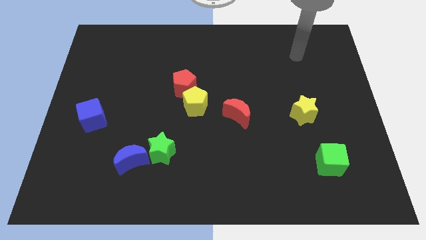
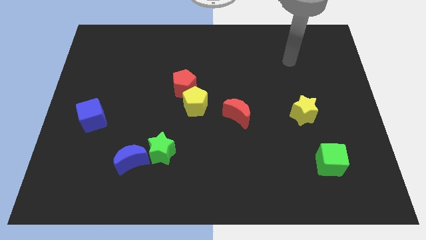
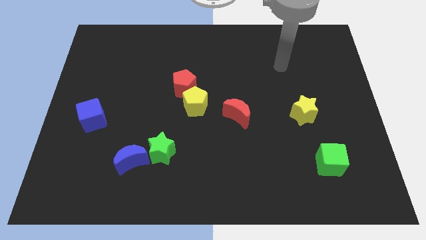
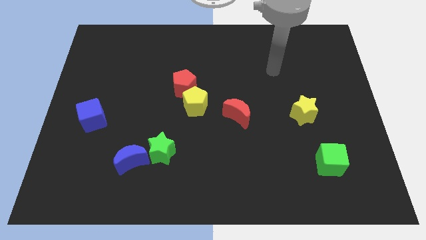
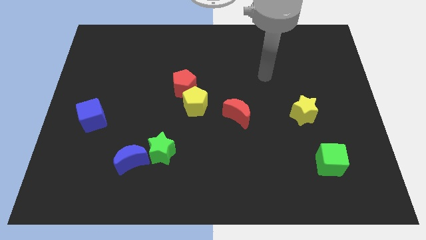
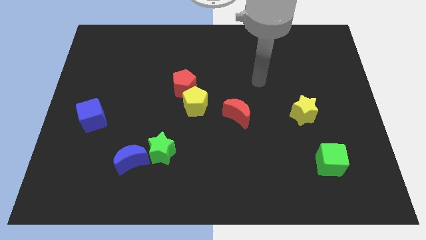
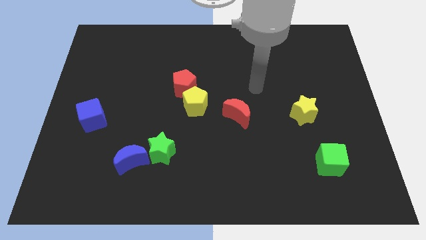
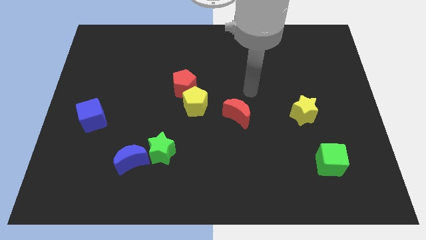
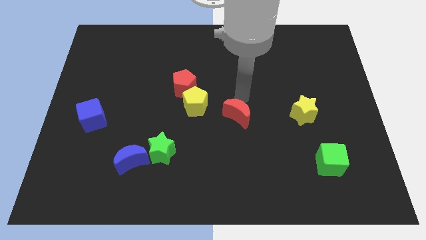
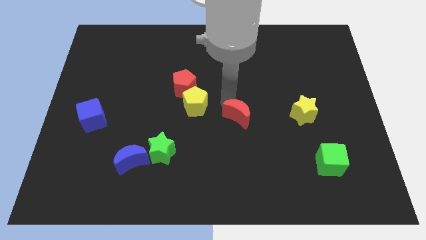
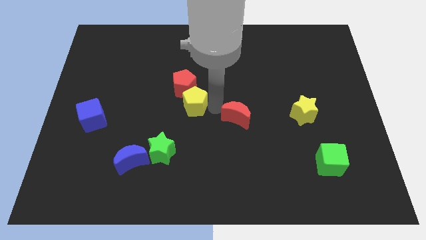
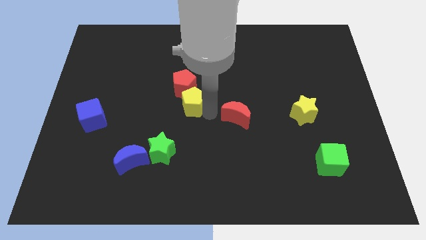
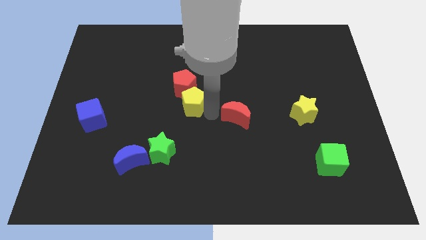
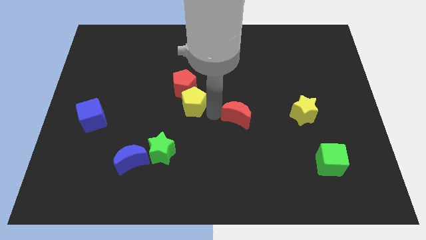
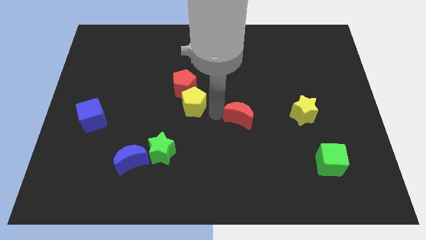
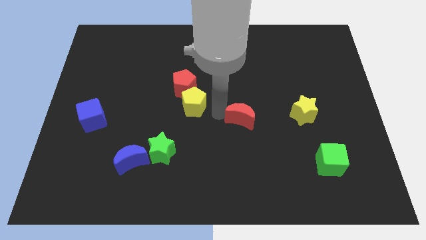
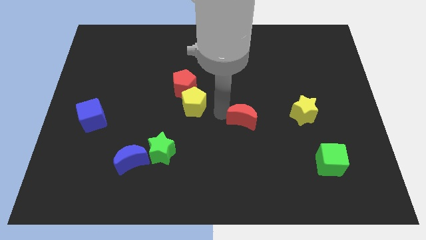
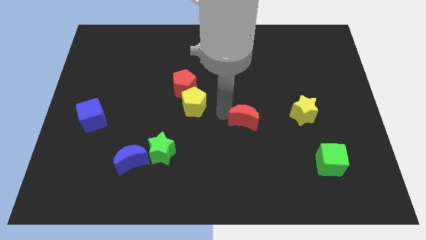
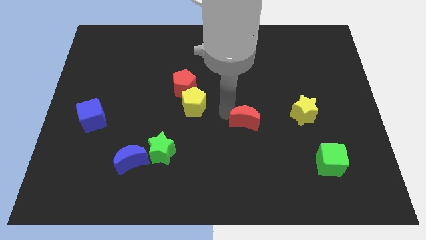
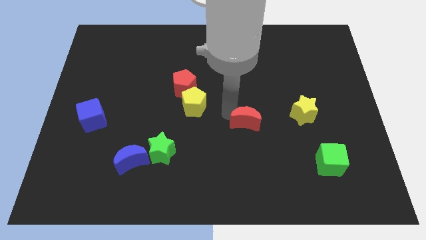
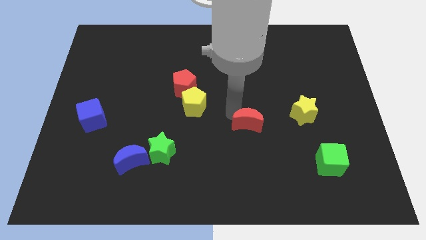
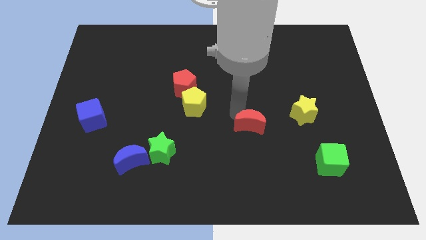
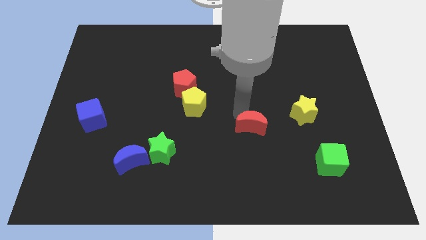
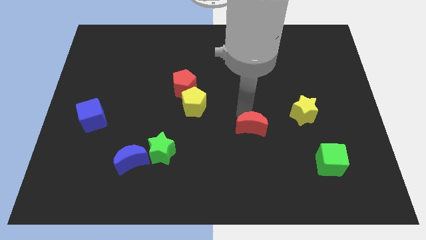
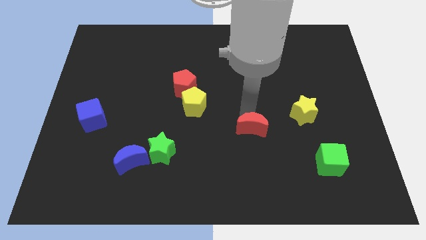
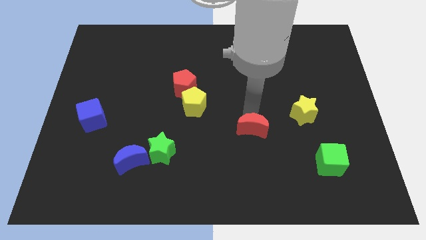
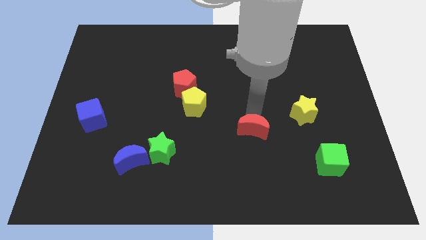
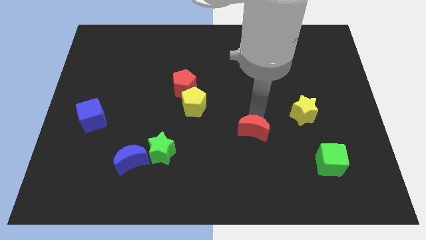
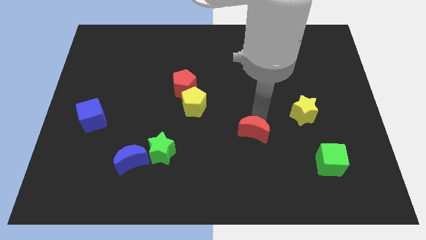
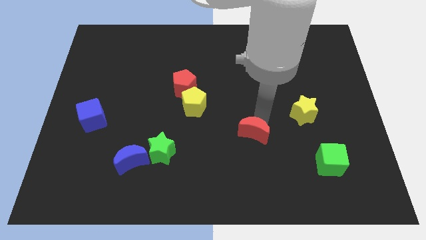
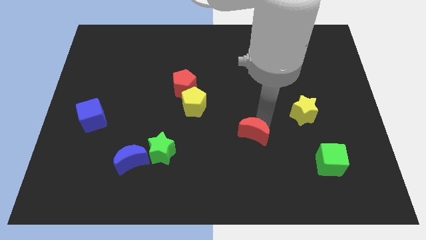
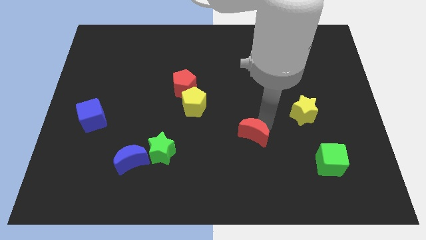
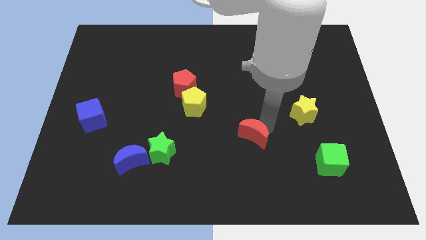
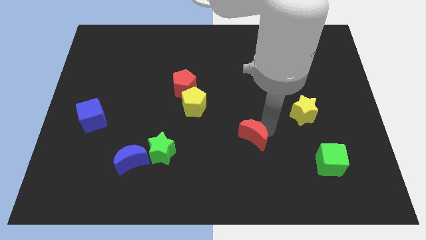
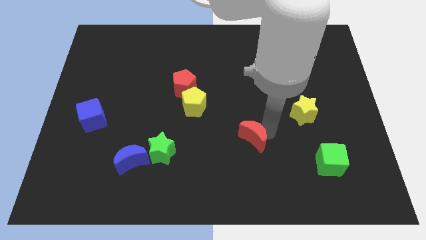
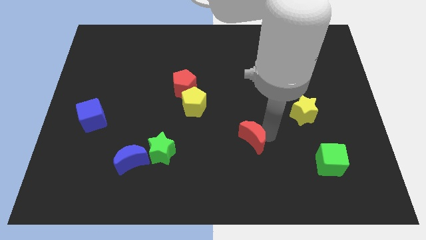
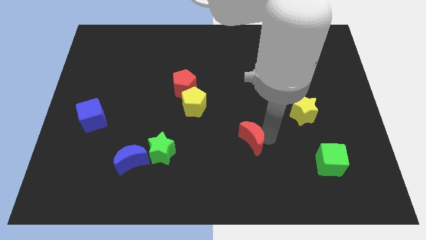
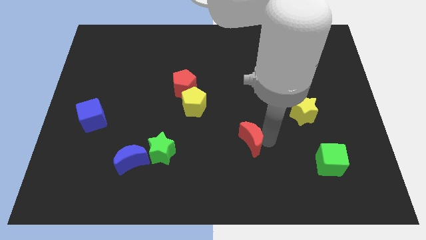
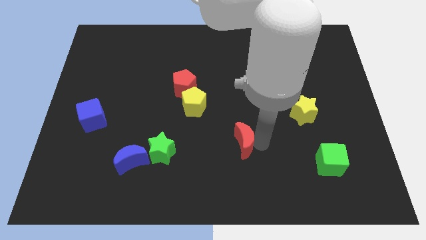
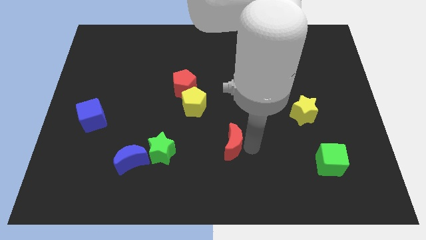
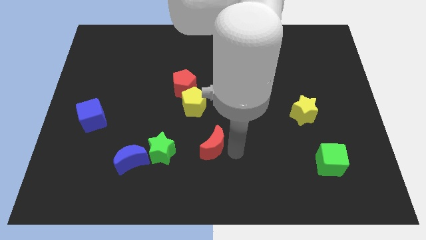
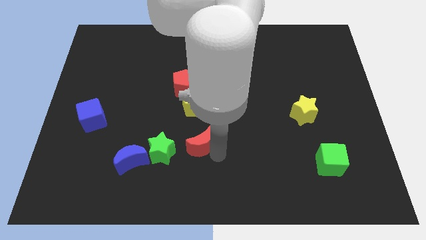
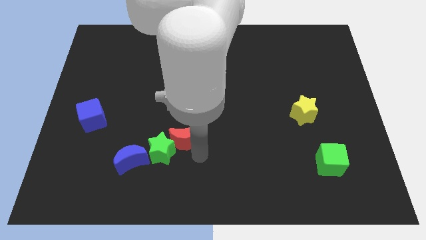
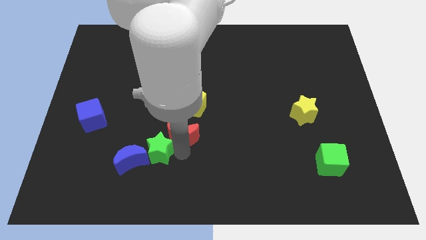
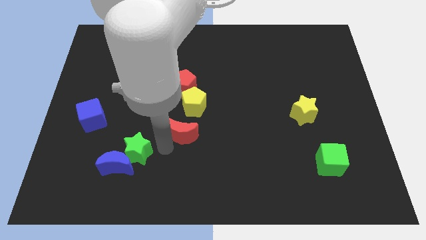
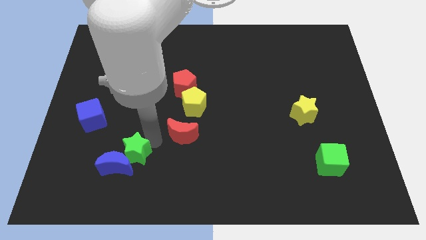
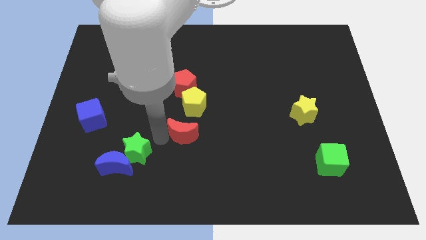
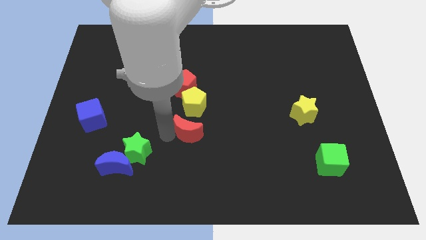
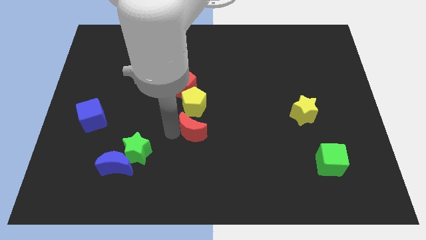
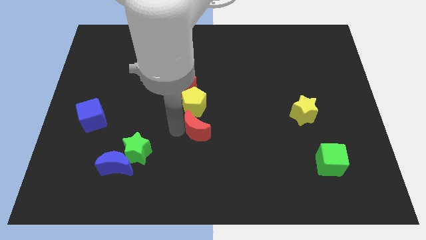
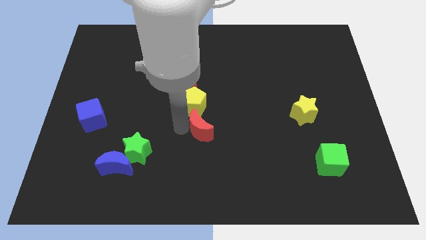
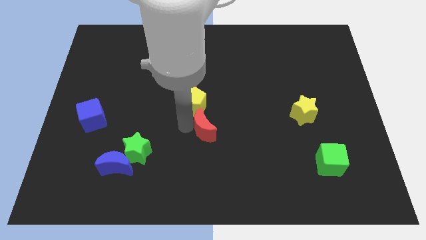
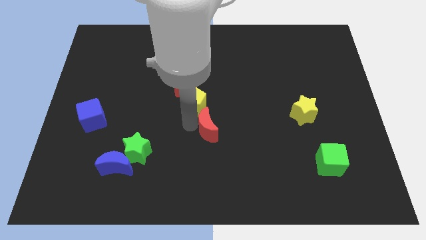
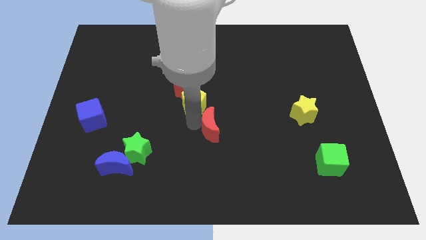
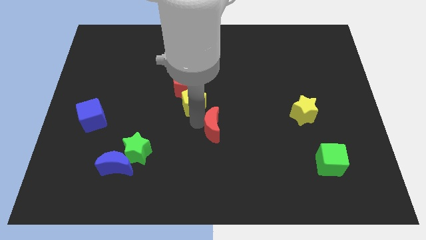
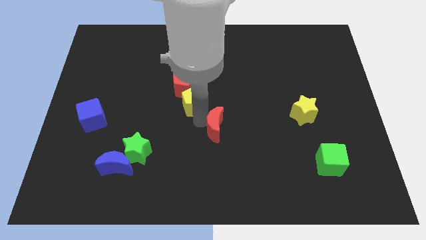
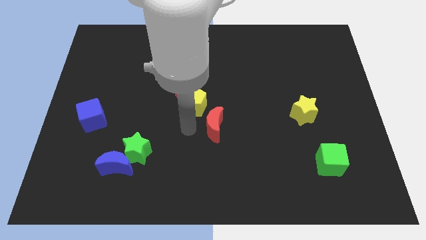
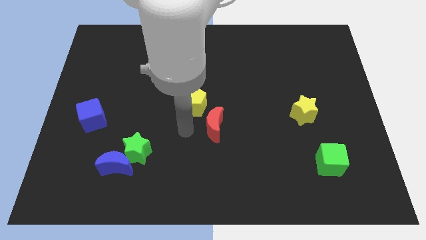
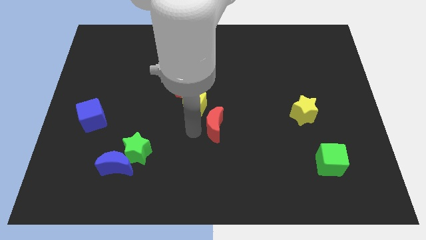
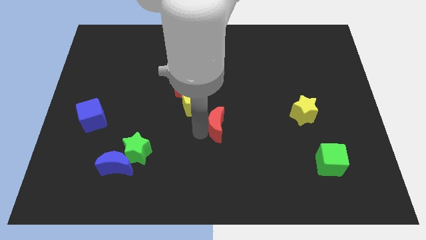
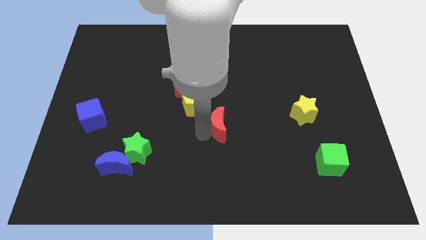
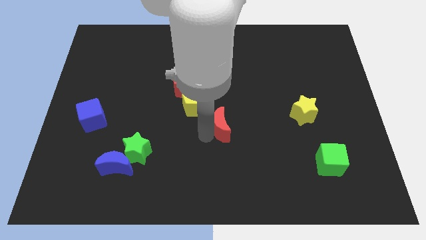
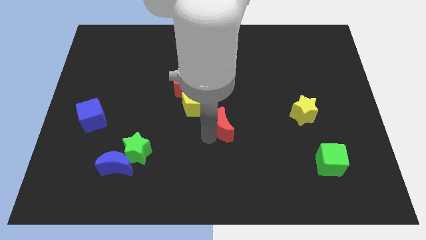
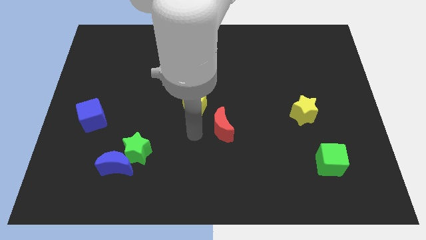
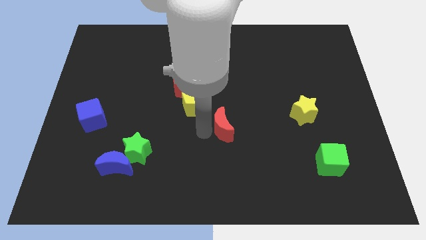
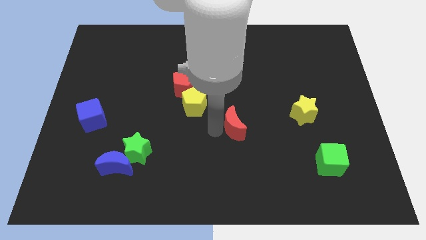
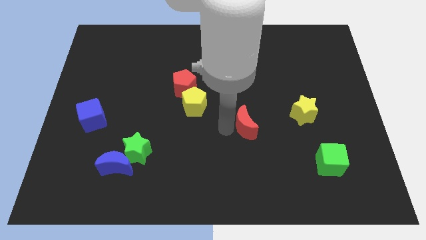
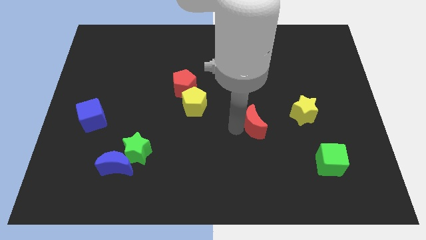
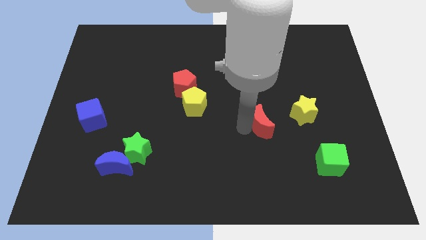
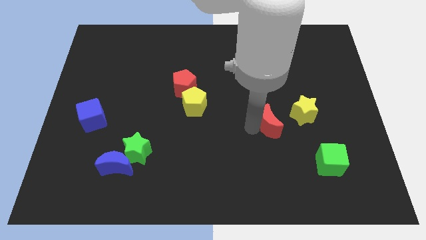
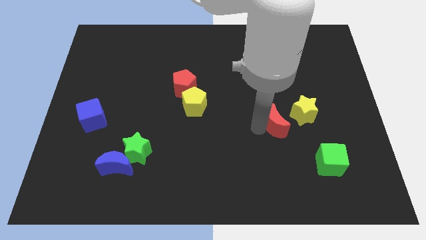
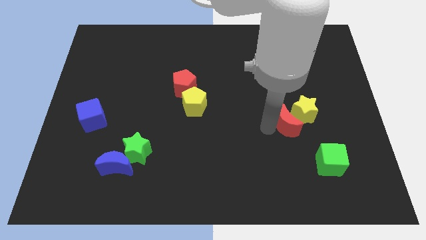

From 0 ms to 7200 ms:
slide the red moon next to the yellow star
